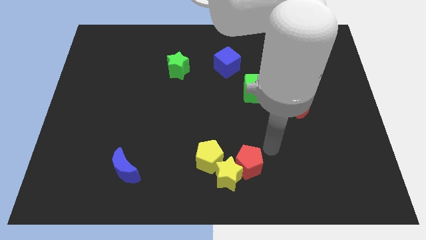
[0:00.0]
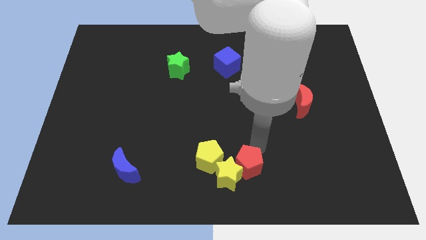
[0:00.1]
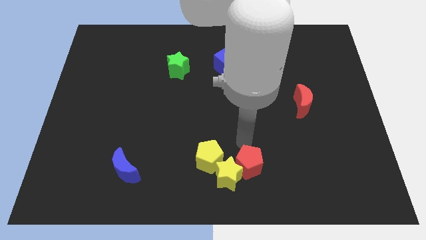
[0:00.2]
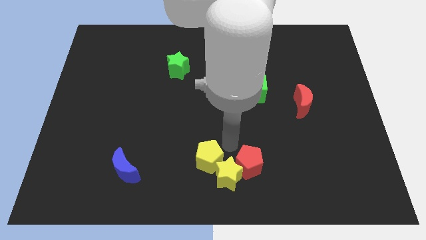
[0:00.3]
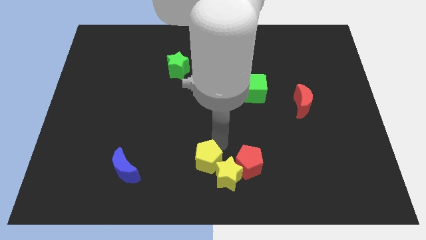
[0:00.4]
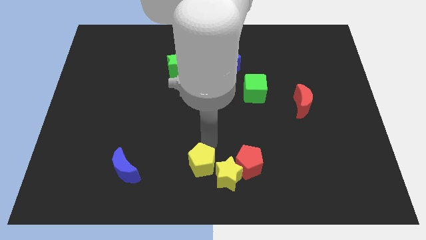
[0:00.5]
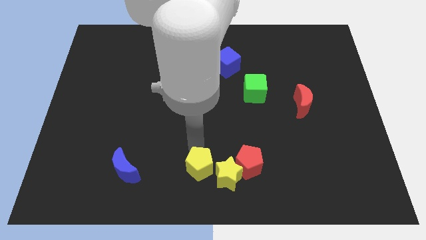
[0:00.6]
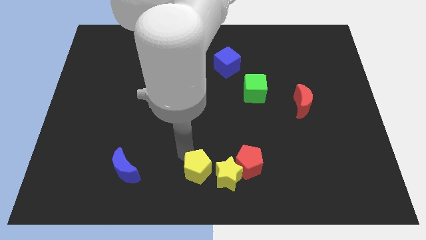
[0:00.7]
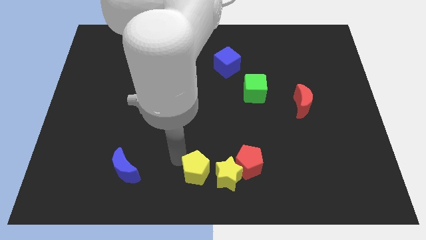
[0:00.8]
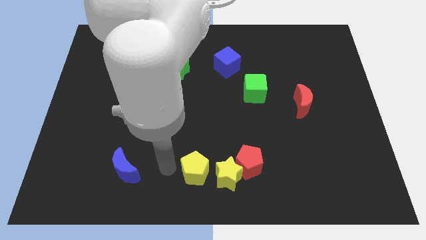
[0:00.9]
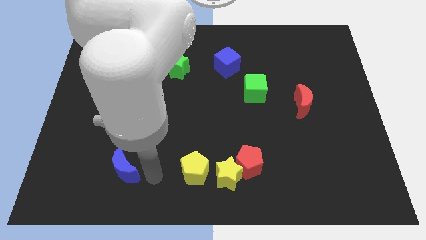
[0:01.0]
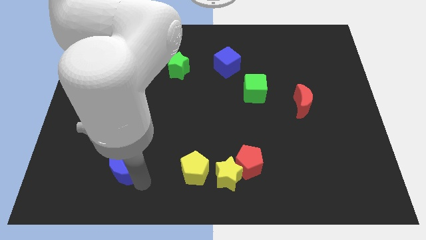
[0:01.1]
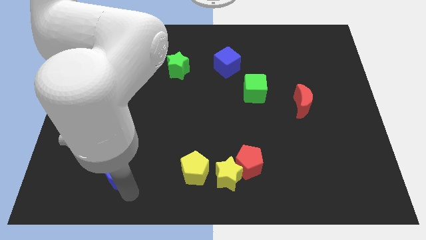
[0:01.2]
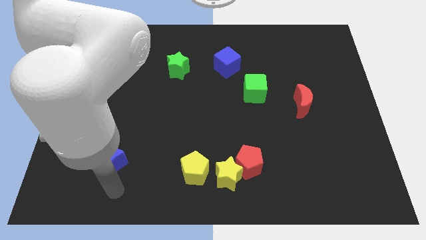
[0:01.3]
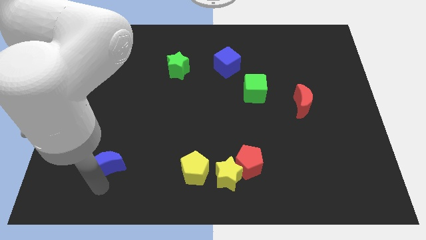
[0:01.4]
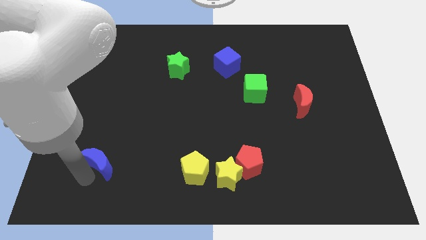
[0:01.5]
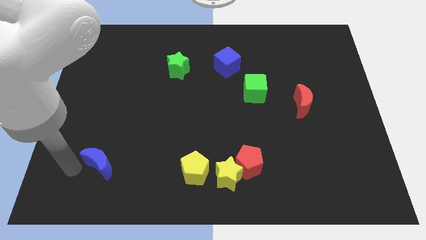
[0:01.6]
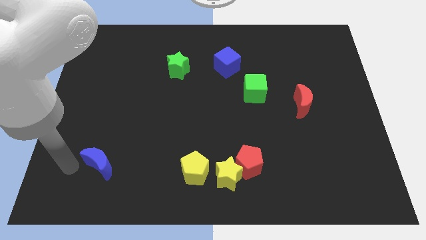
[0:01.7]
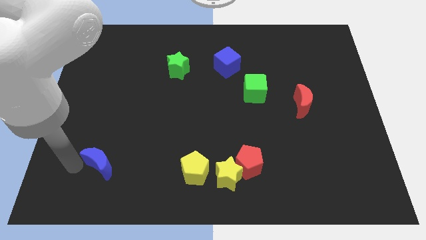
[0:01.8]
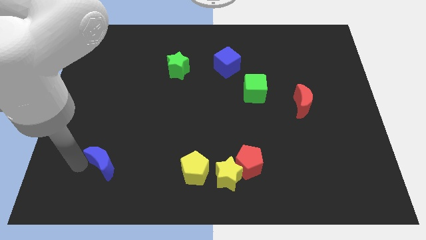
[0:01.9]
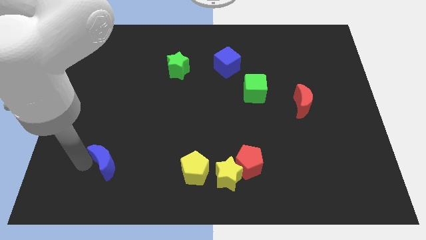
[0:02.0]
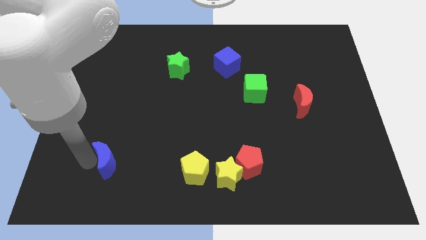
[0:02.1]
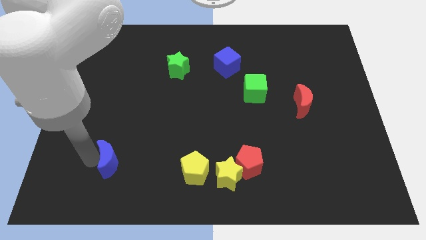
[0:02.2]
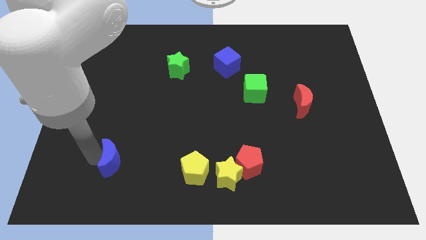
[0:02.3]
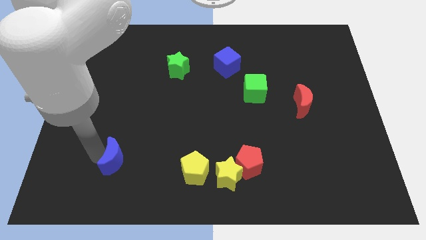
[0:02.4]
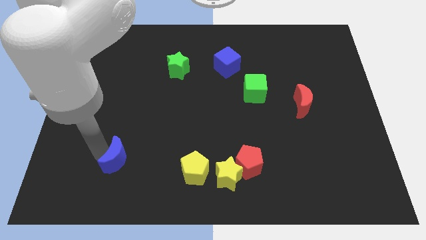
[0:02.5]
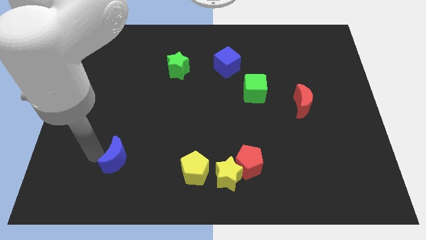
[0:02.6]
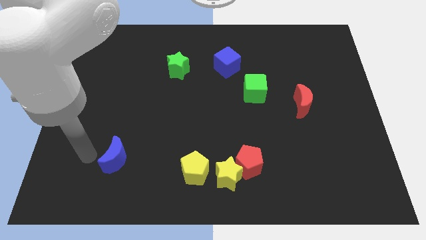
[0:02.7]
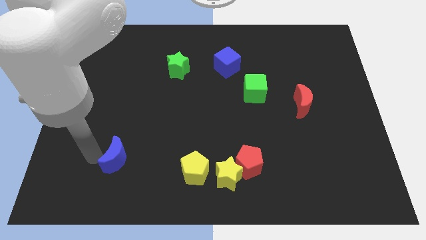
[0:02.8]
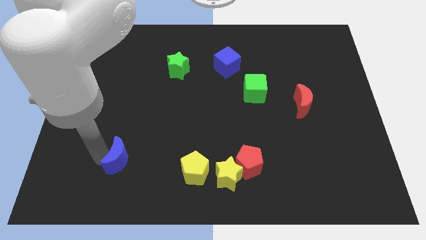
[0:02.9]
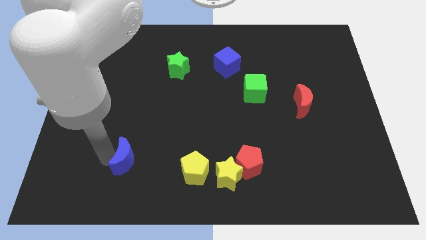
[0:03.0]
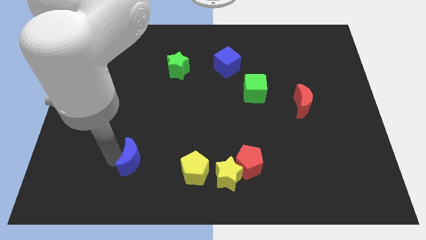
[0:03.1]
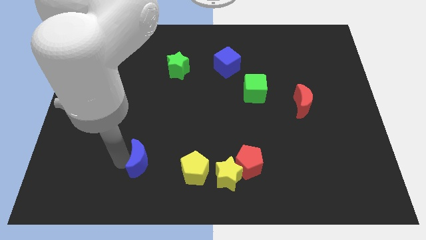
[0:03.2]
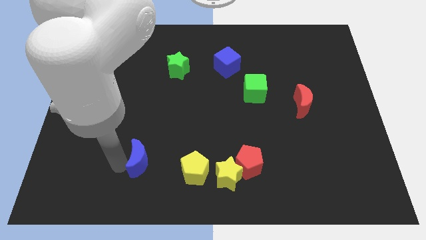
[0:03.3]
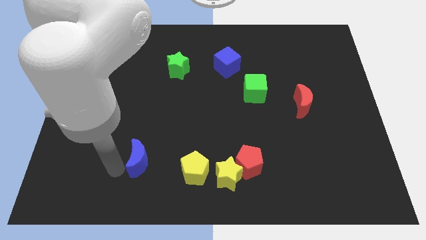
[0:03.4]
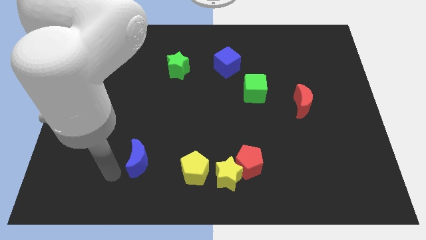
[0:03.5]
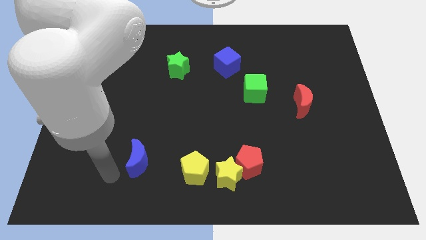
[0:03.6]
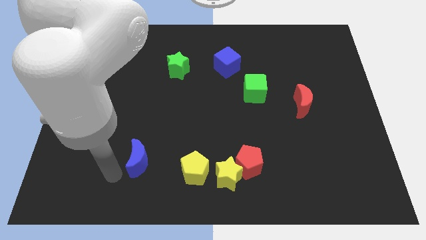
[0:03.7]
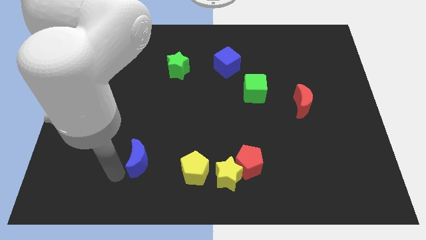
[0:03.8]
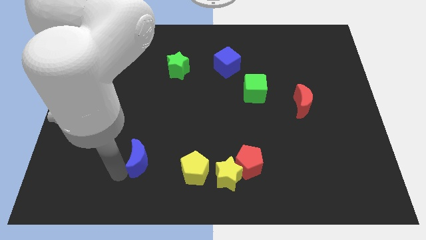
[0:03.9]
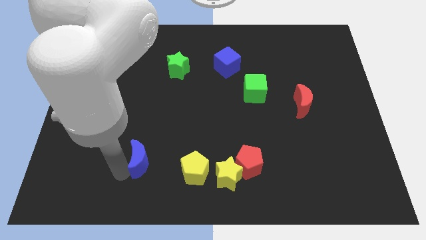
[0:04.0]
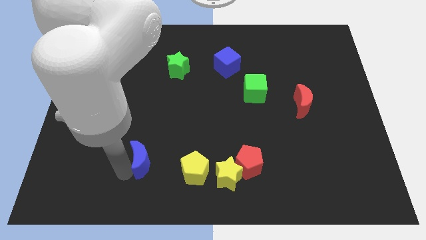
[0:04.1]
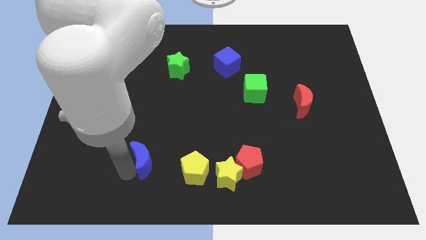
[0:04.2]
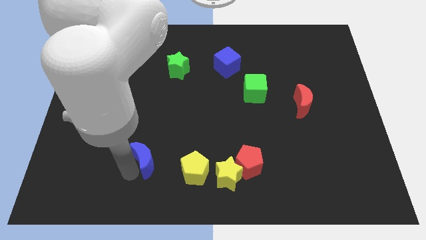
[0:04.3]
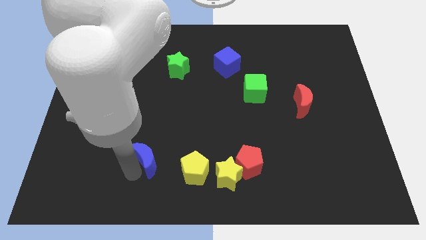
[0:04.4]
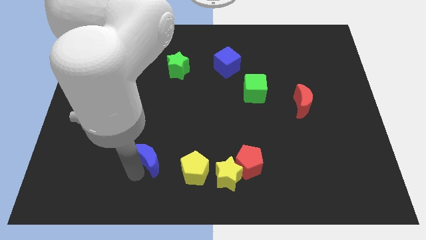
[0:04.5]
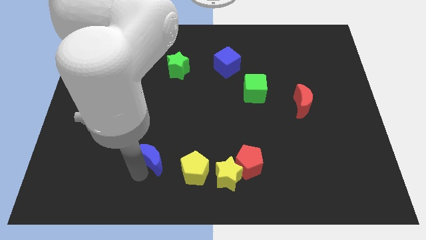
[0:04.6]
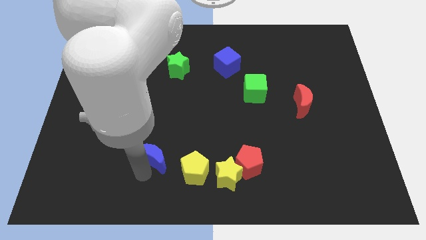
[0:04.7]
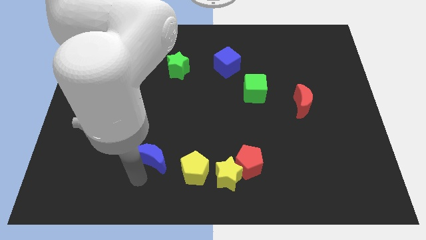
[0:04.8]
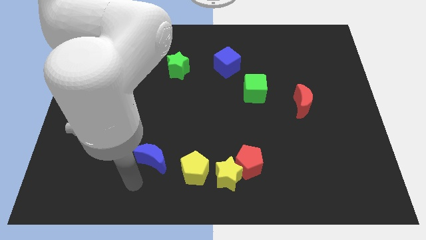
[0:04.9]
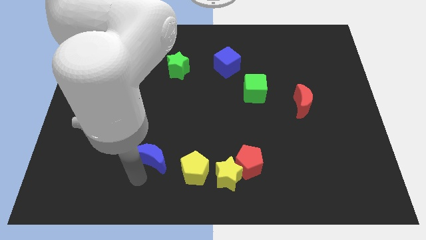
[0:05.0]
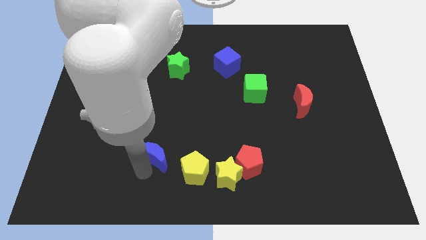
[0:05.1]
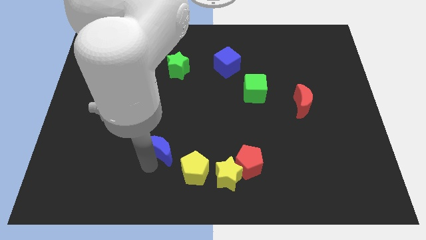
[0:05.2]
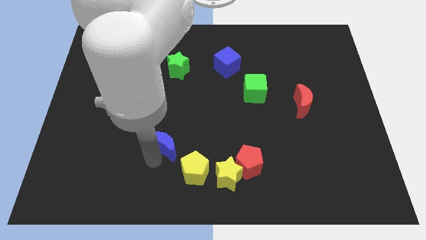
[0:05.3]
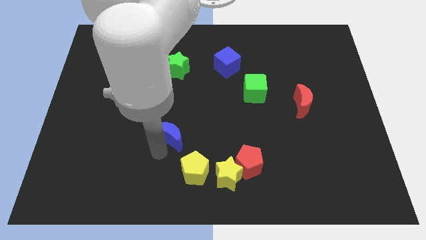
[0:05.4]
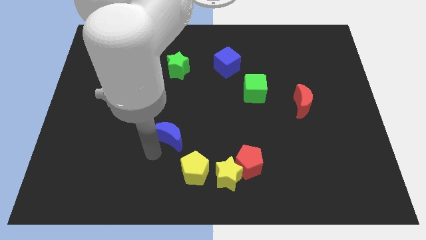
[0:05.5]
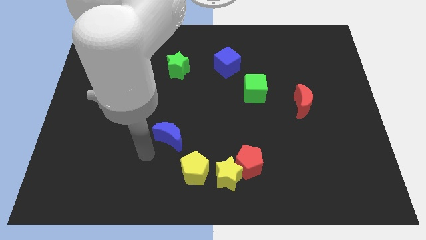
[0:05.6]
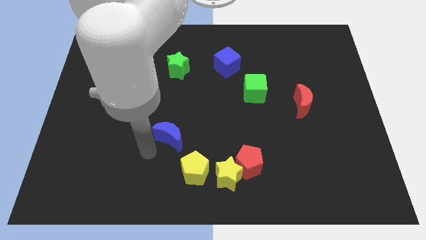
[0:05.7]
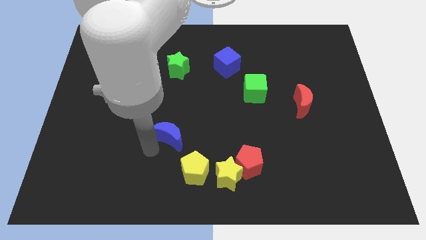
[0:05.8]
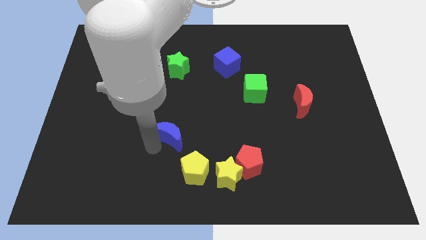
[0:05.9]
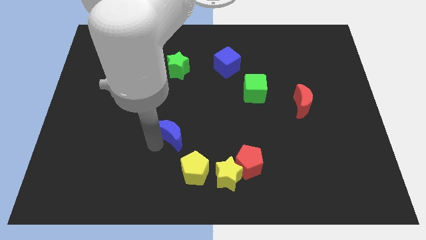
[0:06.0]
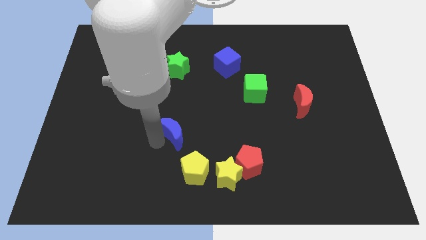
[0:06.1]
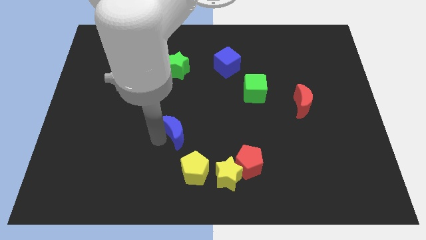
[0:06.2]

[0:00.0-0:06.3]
put the blue moon to the center of the board
